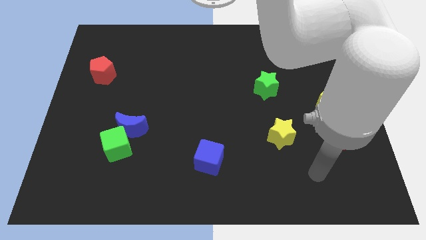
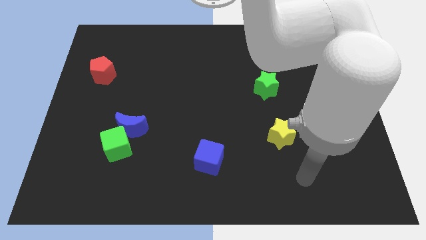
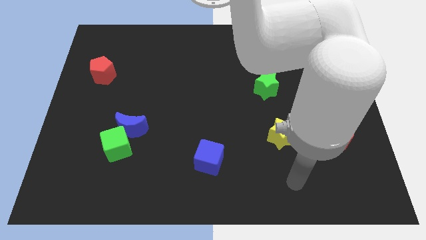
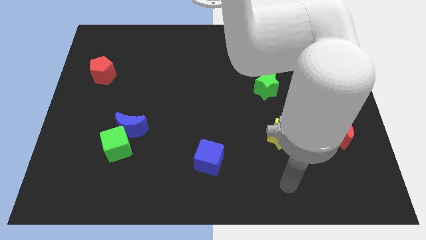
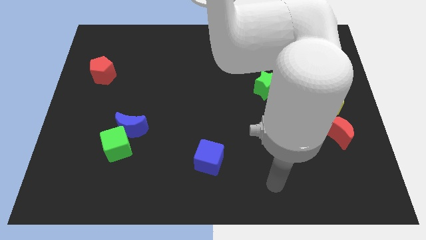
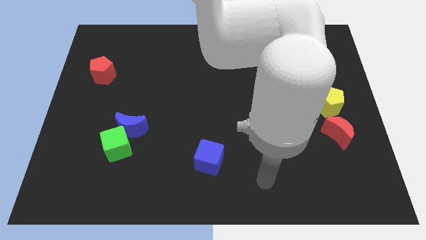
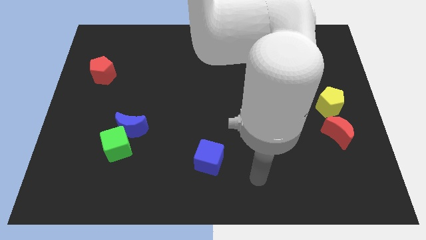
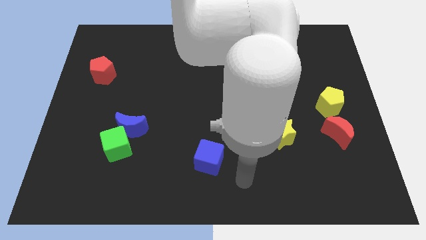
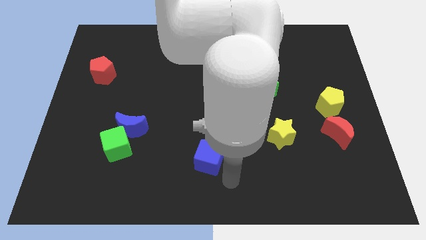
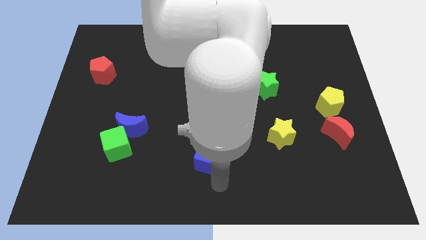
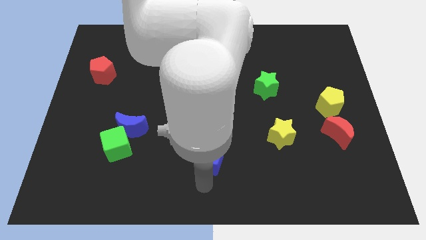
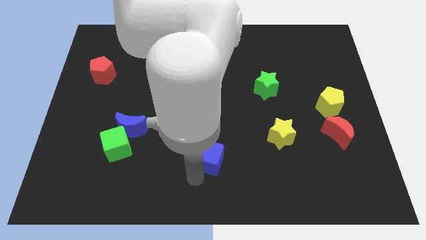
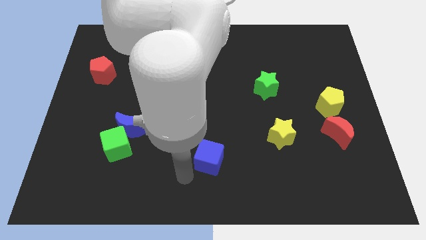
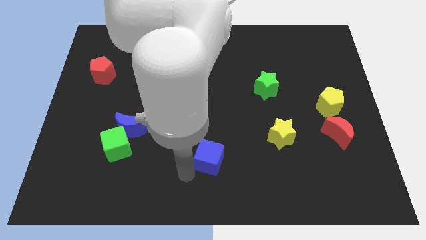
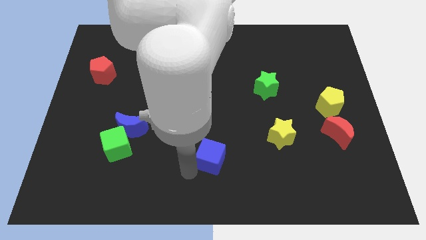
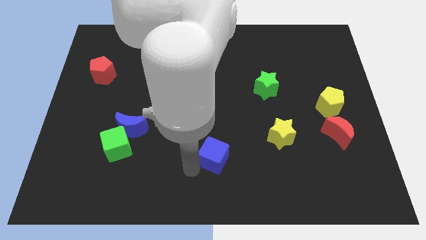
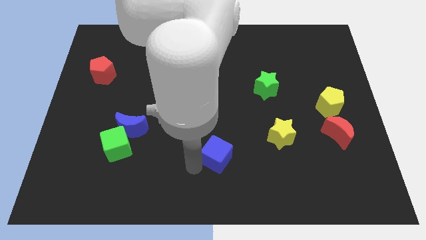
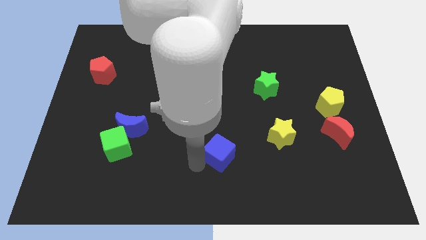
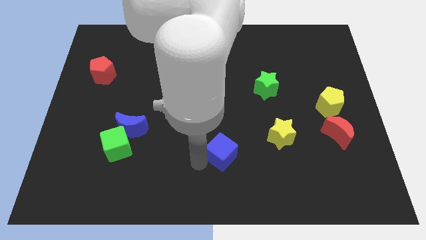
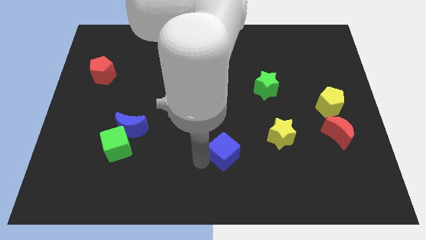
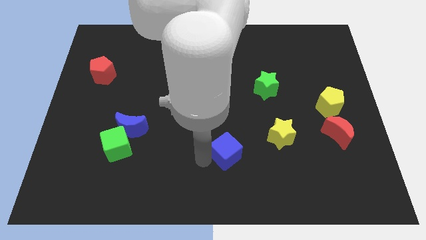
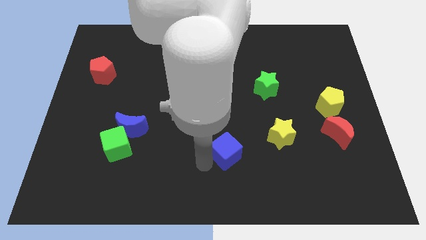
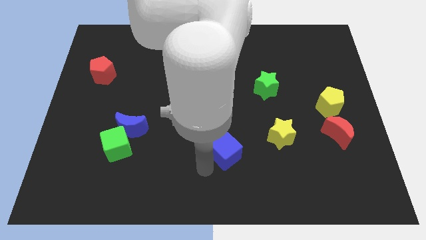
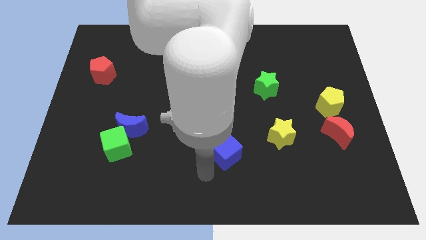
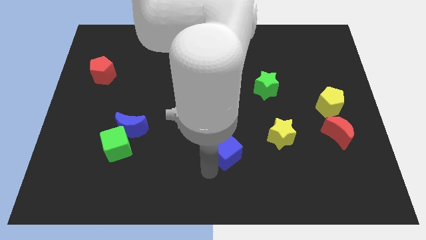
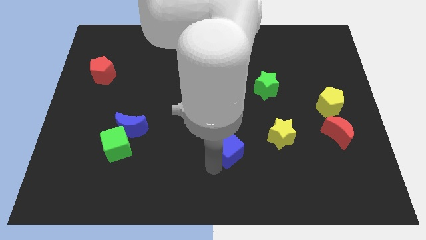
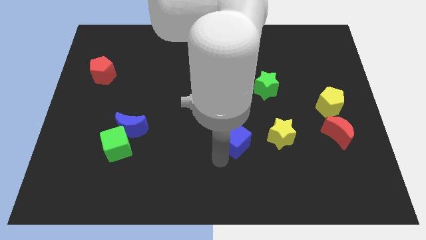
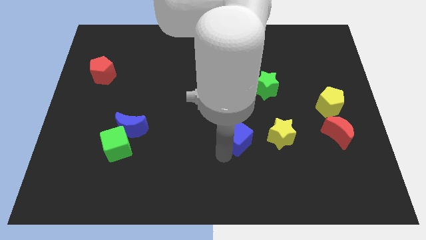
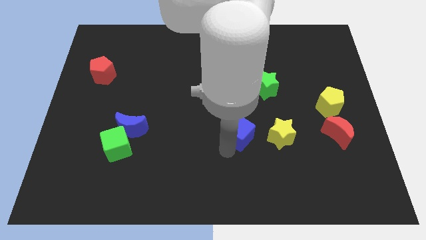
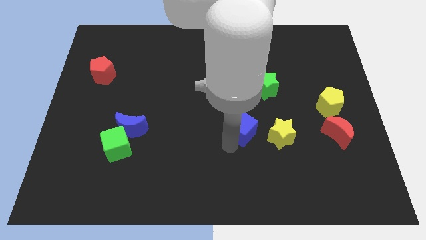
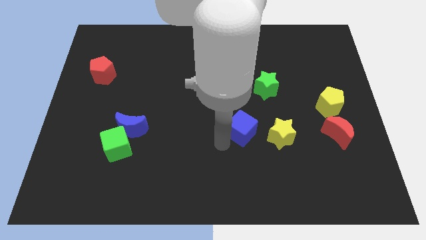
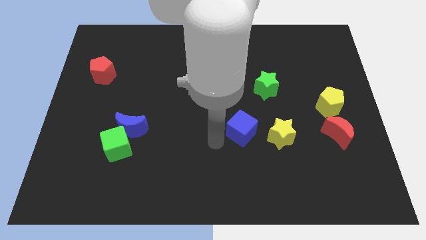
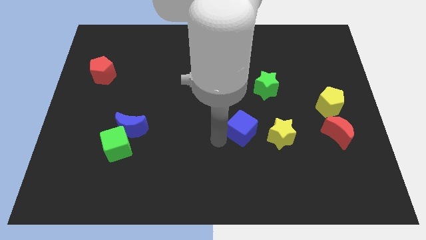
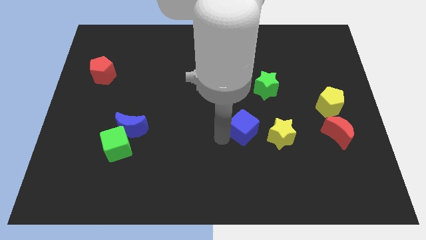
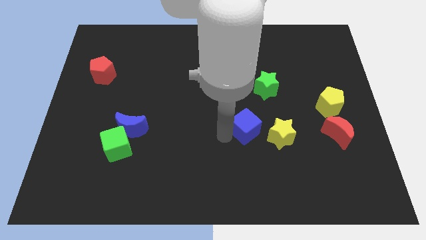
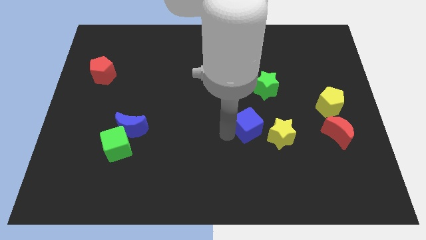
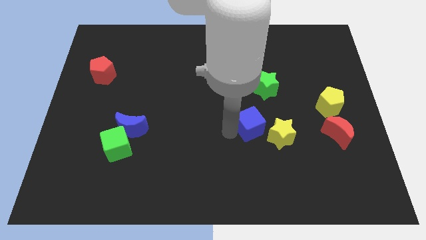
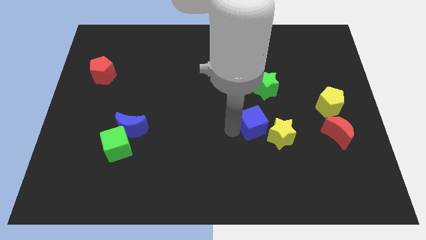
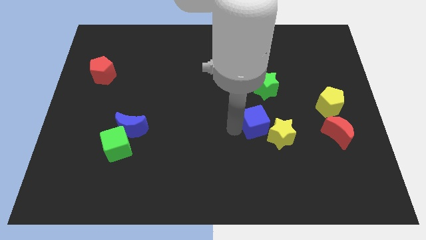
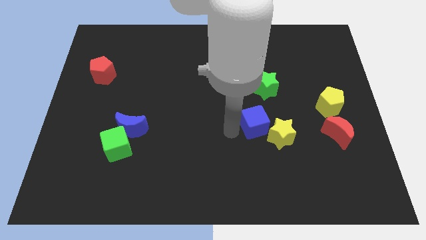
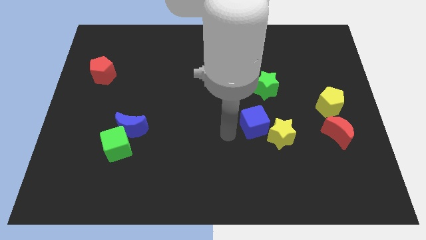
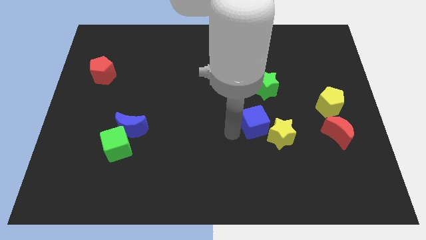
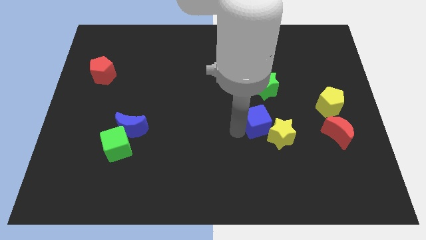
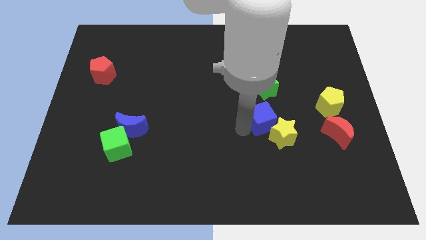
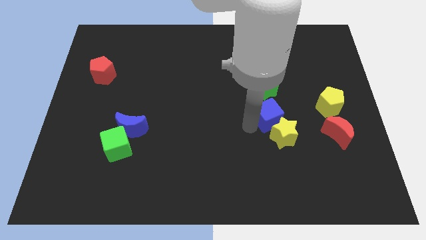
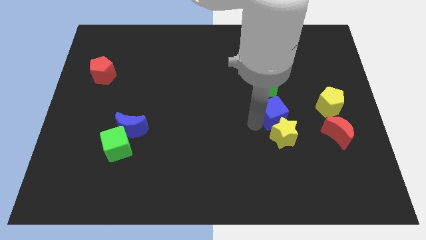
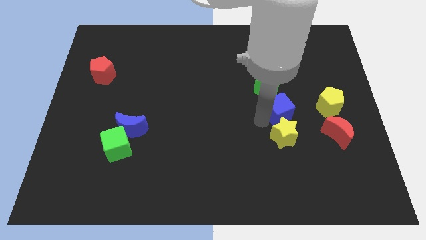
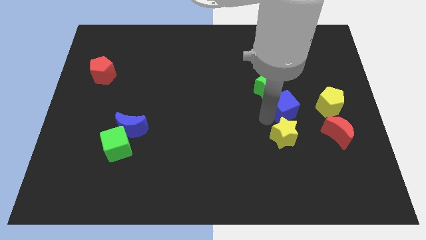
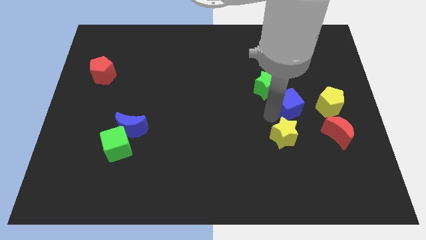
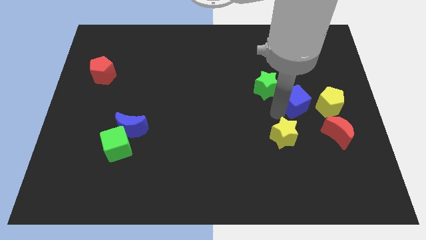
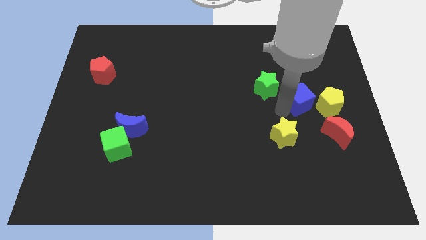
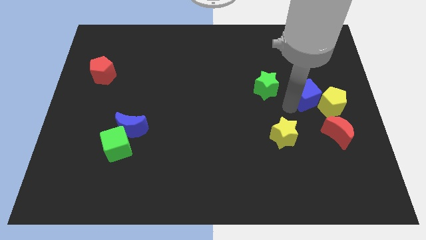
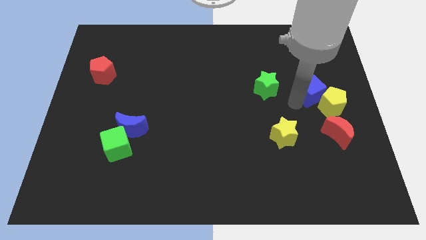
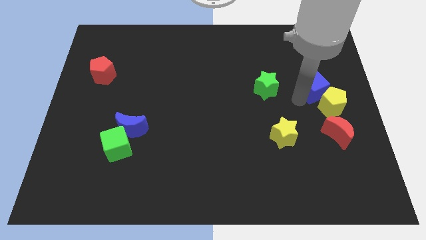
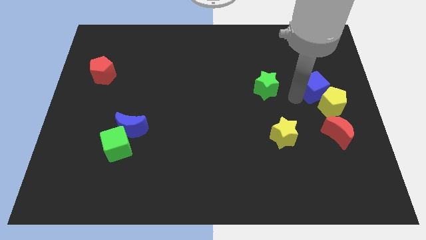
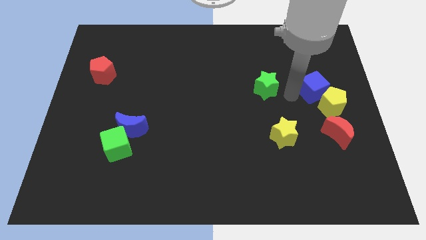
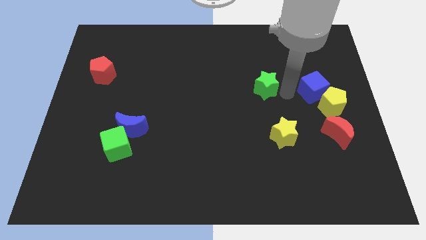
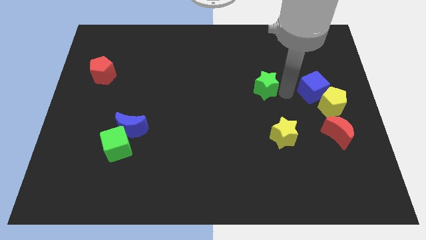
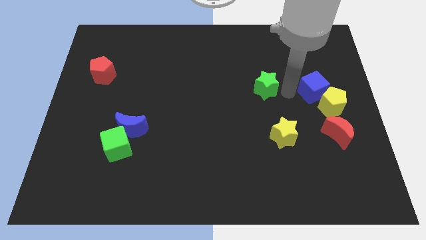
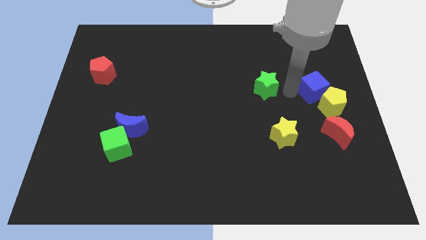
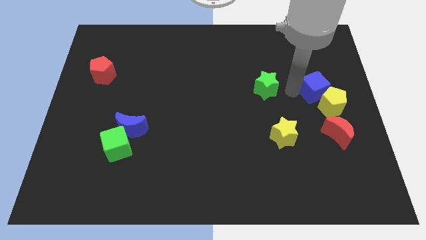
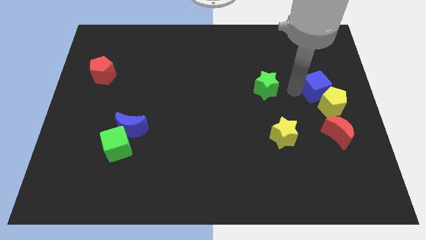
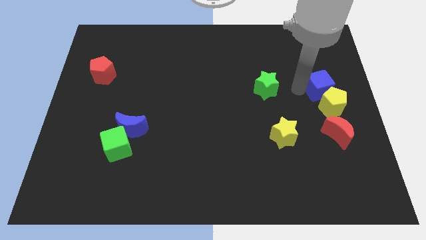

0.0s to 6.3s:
push the blue cube to the center right

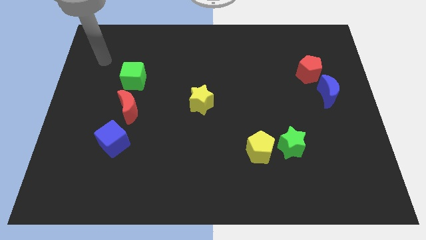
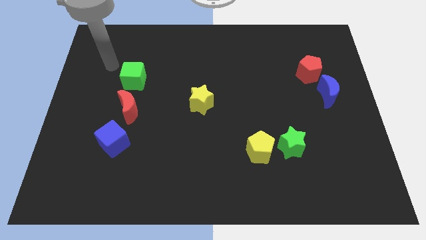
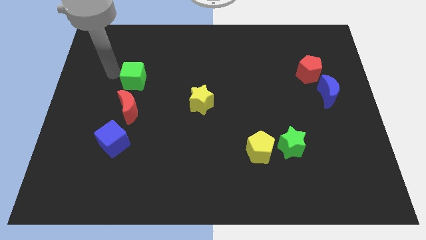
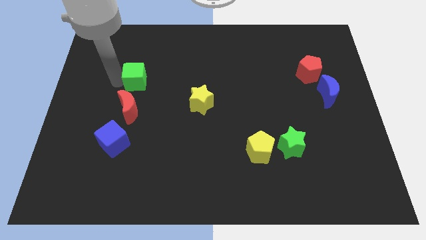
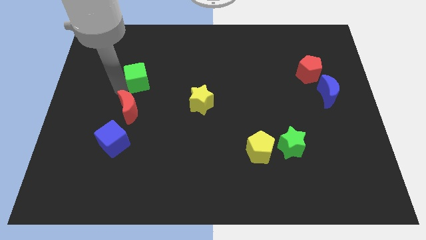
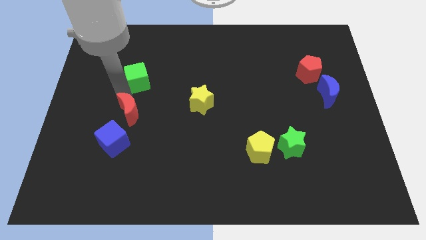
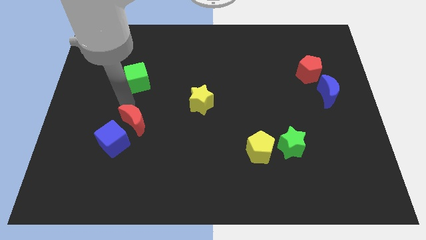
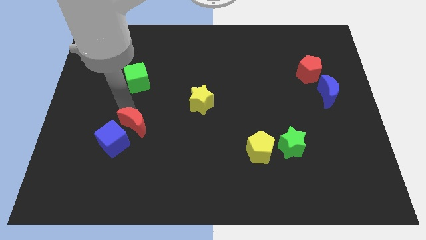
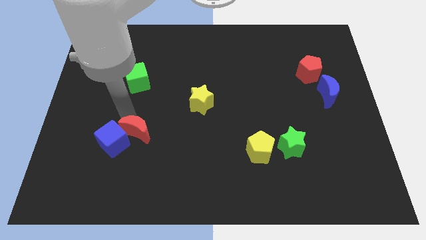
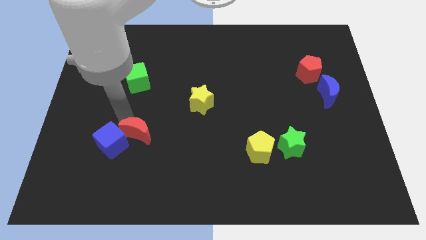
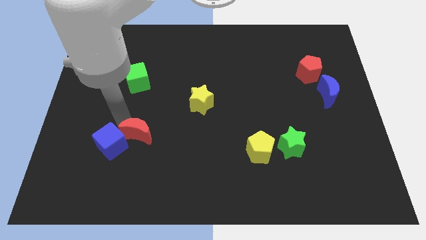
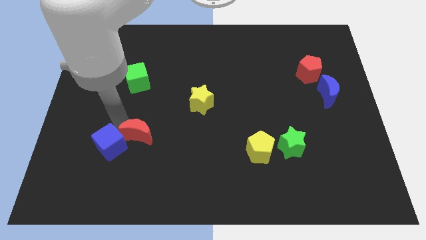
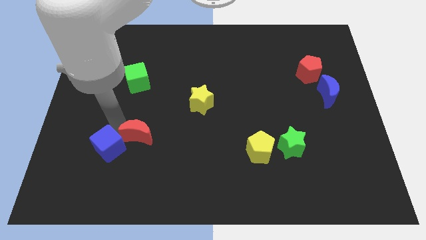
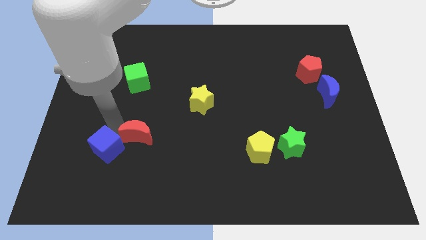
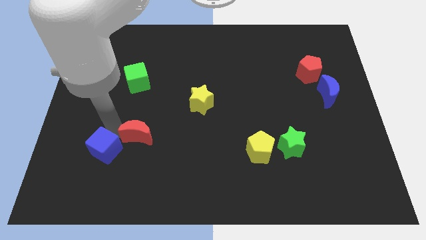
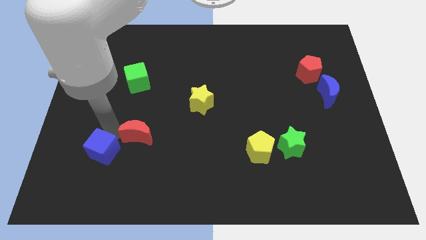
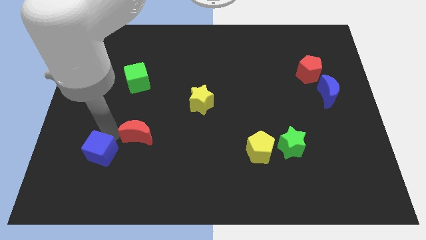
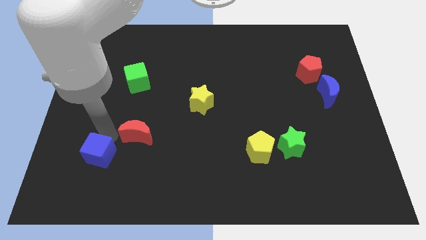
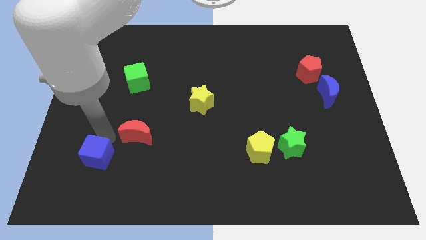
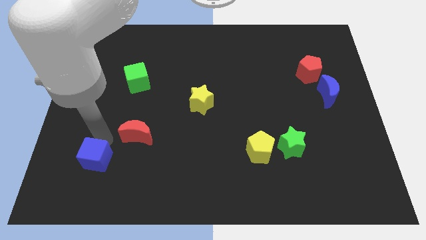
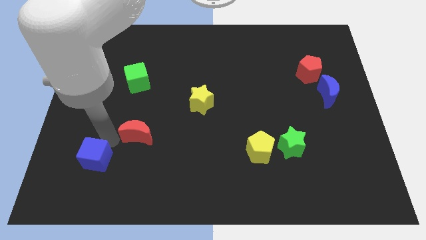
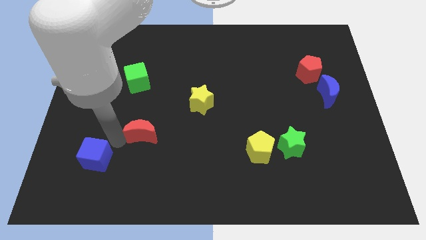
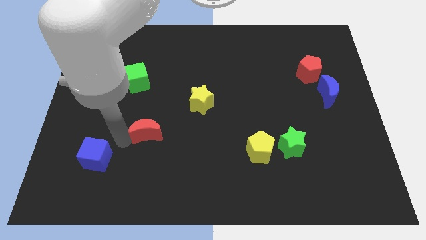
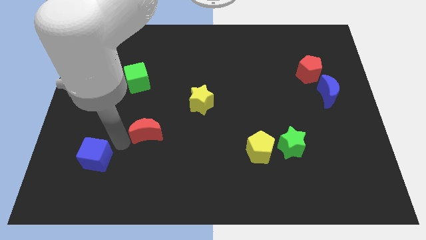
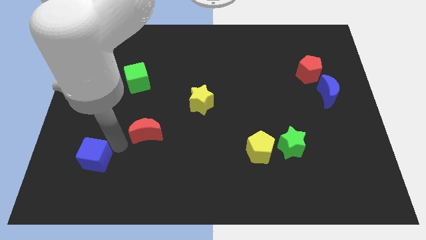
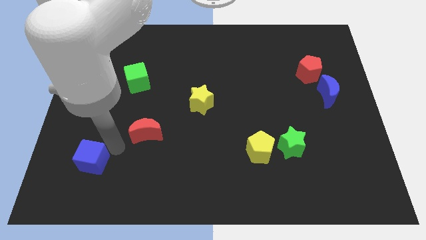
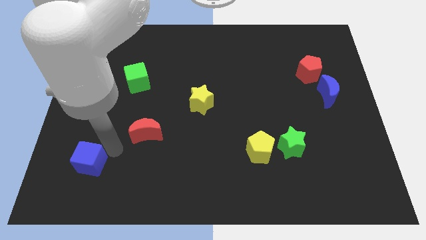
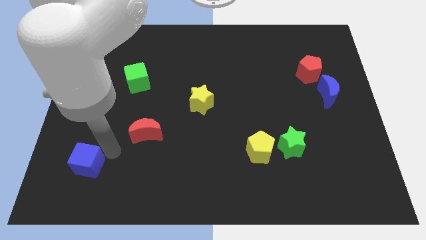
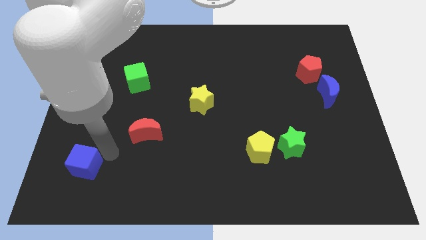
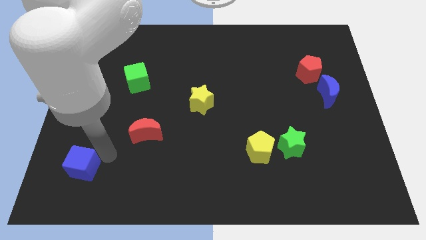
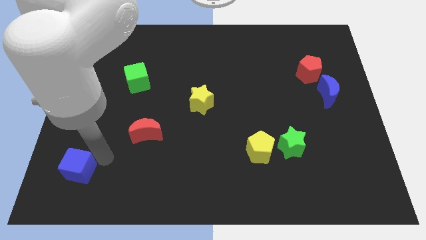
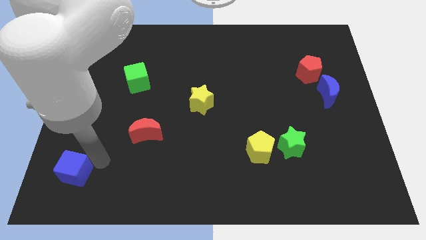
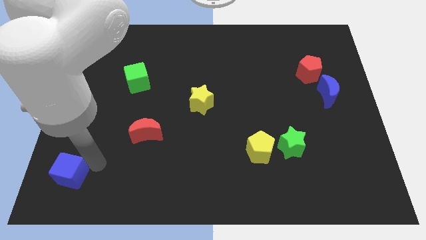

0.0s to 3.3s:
push the blue cube to the bottom left
